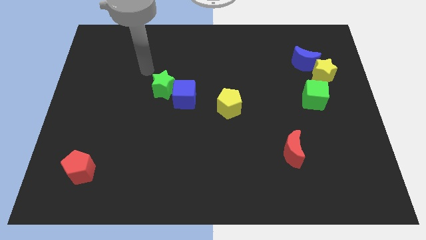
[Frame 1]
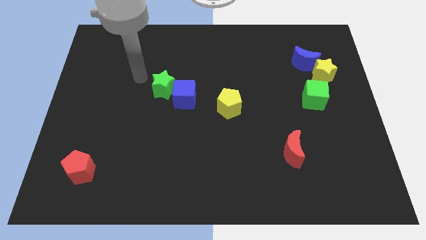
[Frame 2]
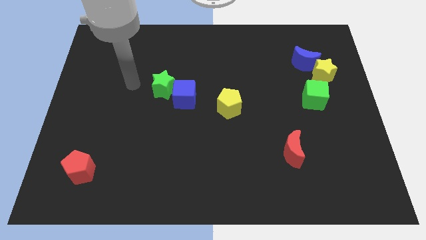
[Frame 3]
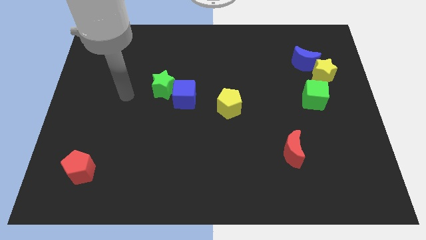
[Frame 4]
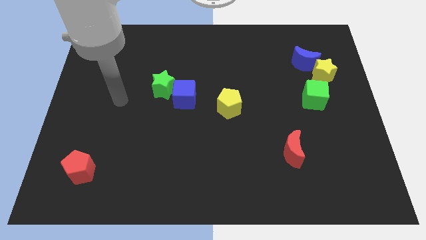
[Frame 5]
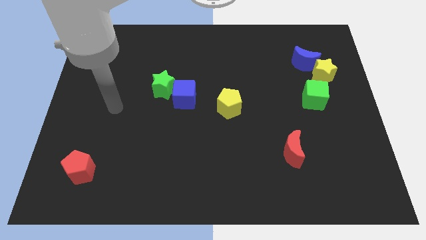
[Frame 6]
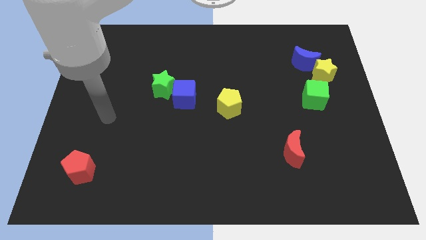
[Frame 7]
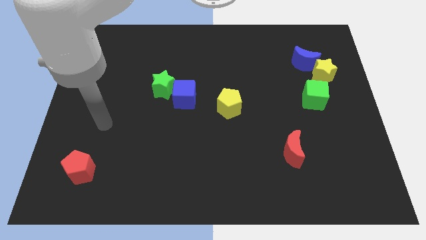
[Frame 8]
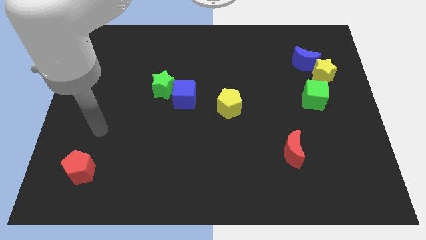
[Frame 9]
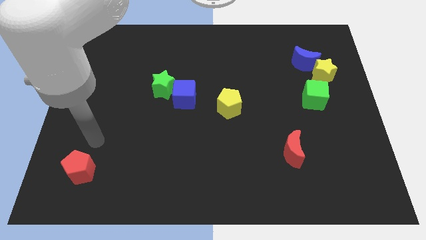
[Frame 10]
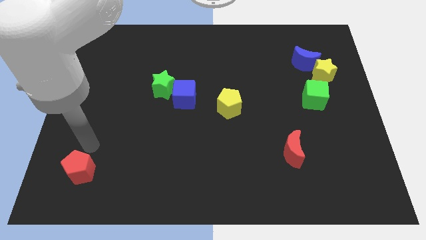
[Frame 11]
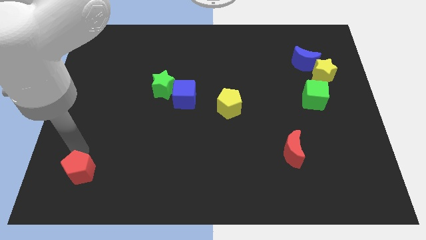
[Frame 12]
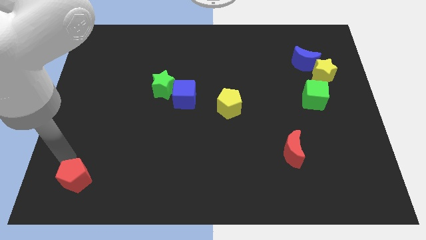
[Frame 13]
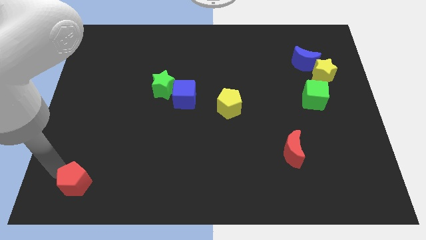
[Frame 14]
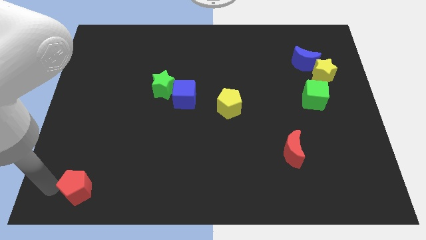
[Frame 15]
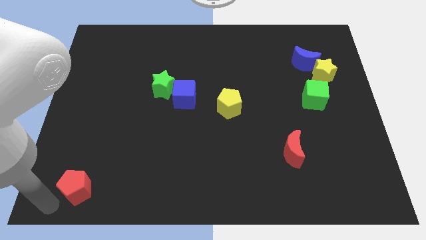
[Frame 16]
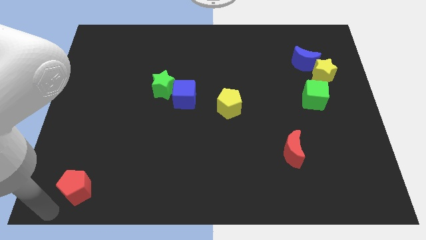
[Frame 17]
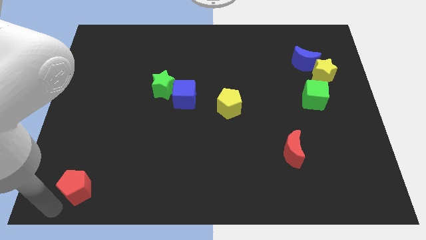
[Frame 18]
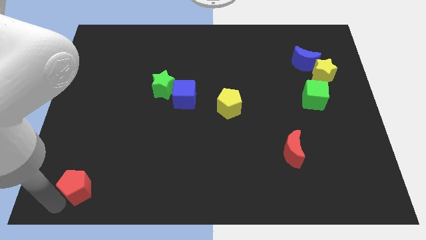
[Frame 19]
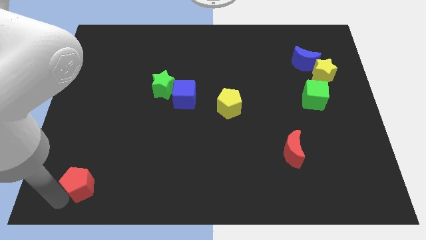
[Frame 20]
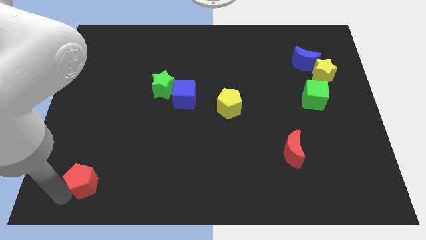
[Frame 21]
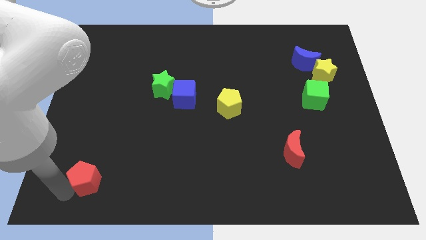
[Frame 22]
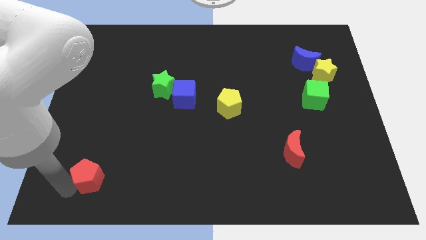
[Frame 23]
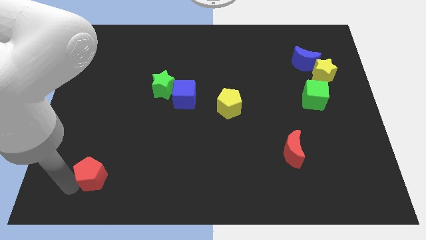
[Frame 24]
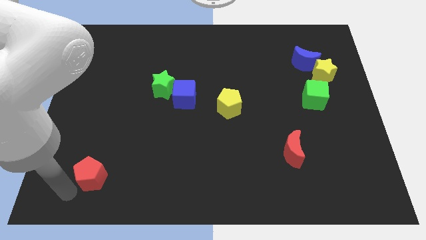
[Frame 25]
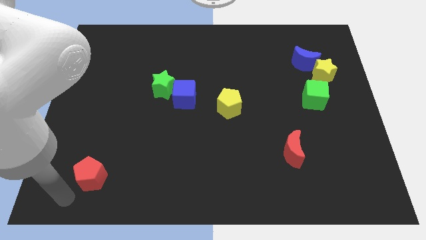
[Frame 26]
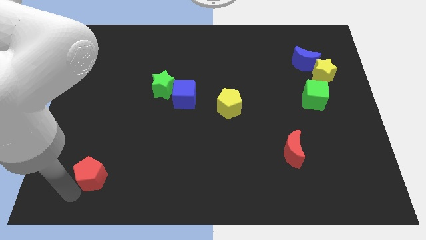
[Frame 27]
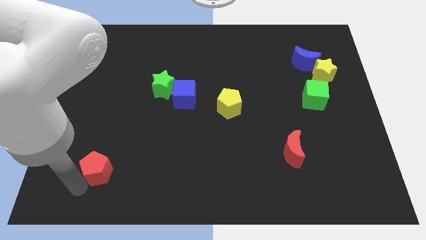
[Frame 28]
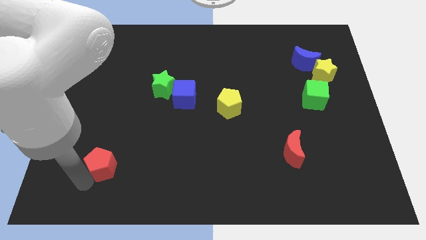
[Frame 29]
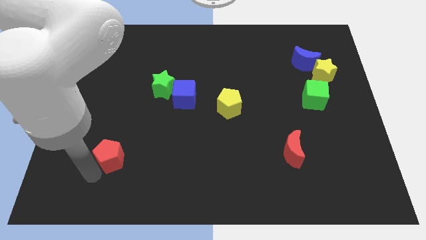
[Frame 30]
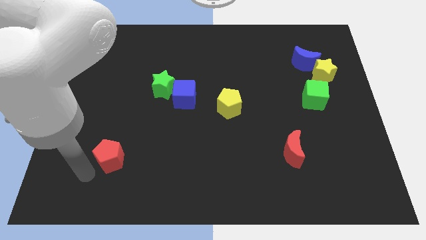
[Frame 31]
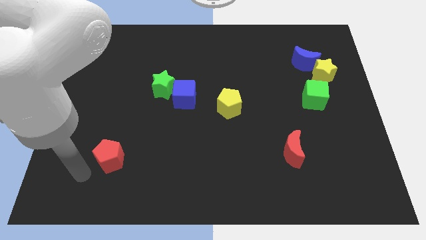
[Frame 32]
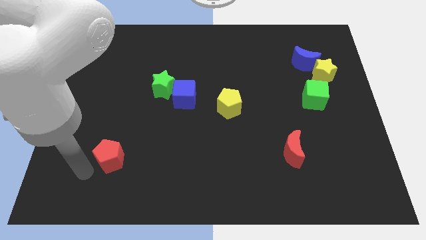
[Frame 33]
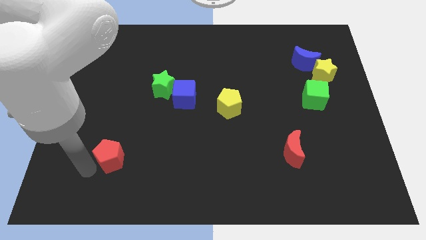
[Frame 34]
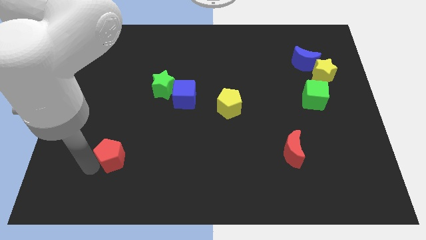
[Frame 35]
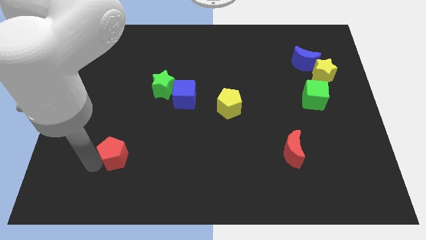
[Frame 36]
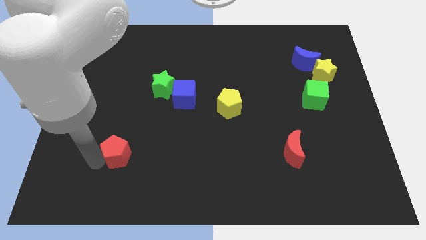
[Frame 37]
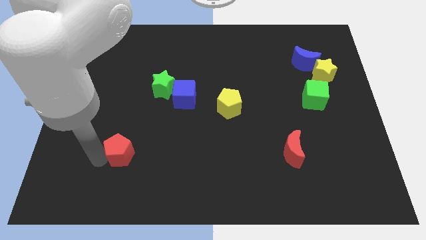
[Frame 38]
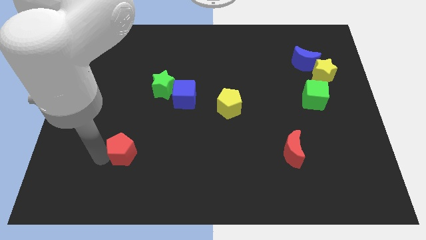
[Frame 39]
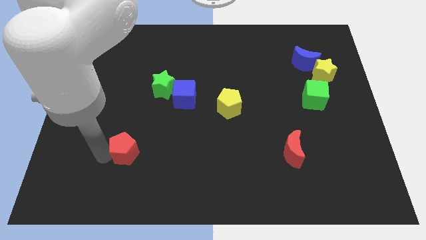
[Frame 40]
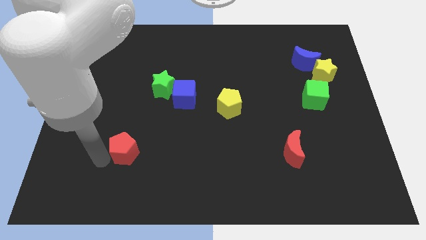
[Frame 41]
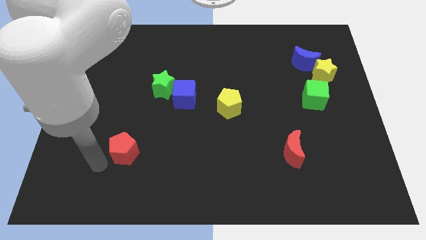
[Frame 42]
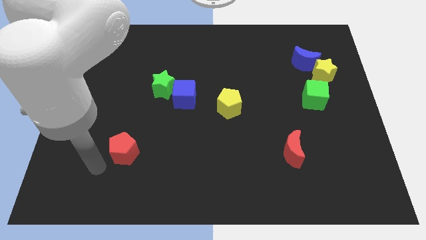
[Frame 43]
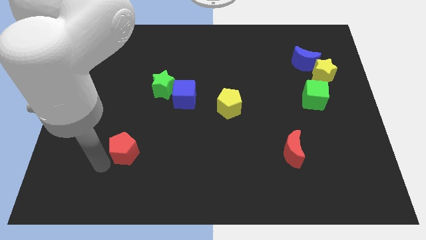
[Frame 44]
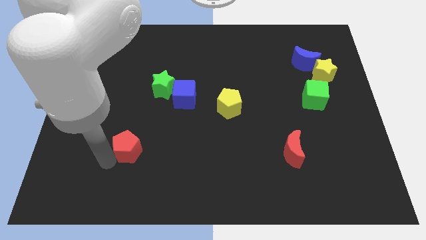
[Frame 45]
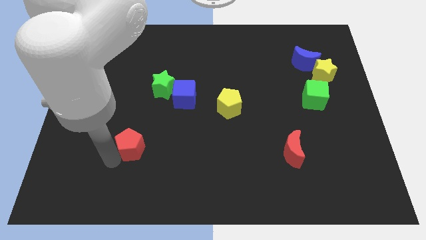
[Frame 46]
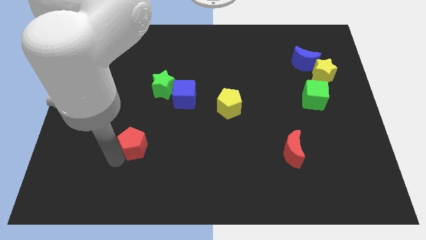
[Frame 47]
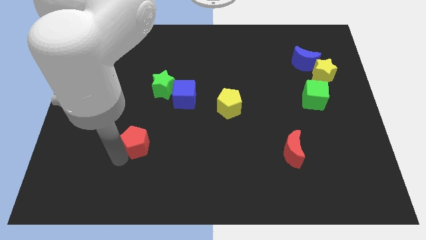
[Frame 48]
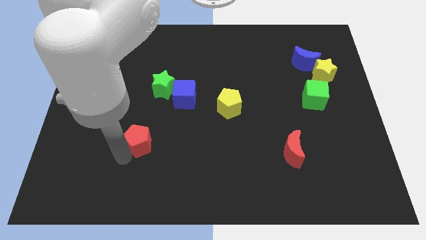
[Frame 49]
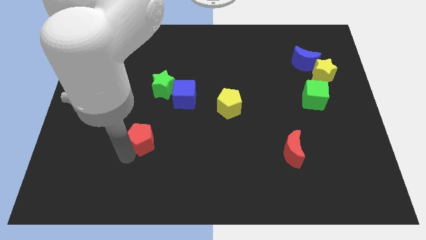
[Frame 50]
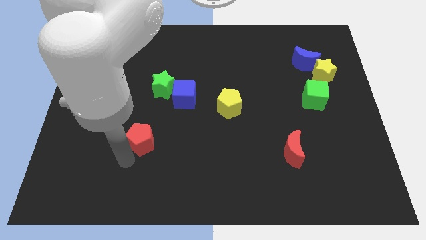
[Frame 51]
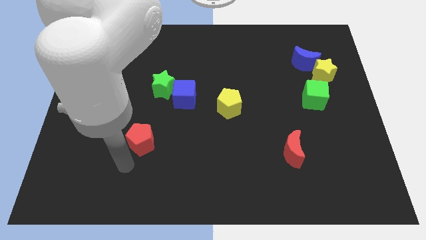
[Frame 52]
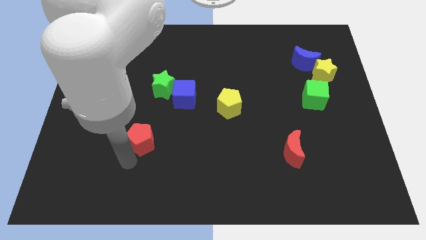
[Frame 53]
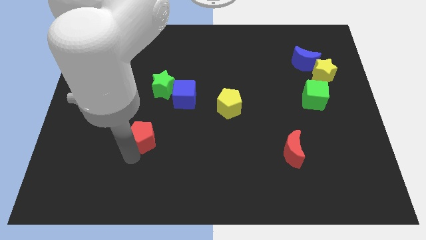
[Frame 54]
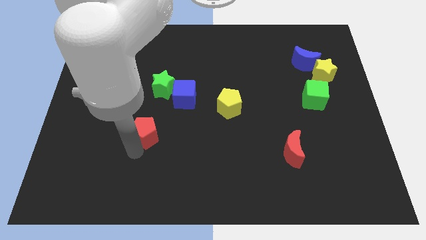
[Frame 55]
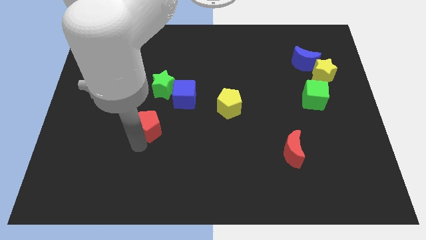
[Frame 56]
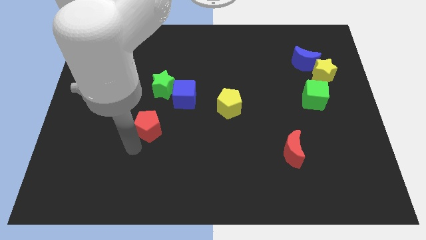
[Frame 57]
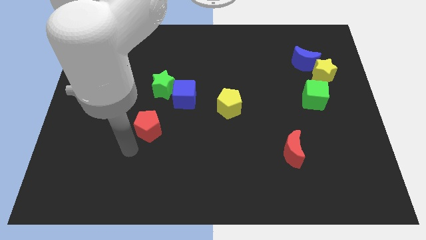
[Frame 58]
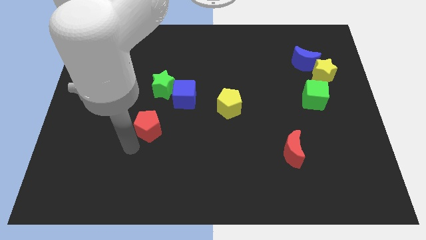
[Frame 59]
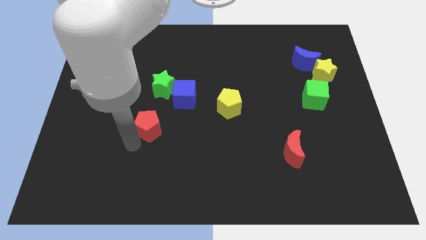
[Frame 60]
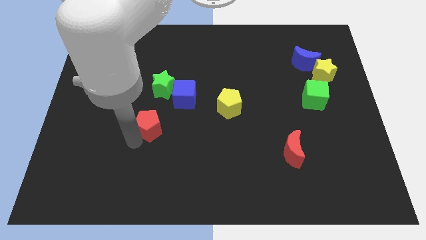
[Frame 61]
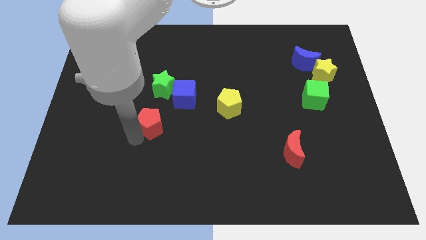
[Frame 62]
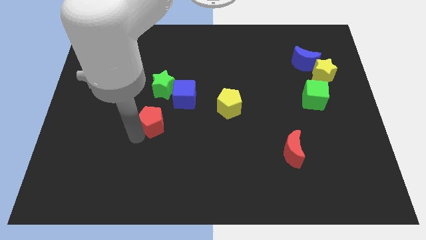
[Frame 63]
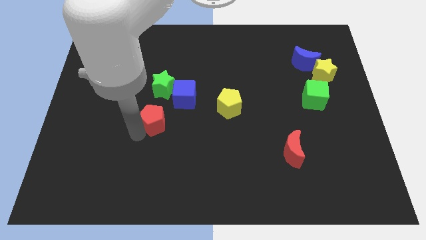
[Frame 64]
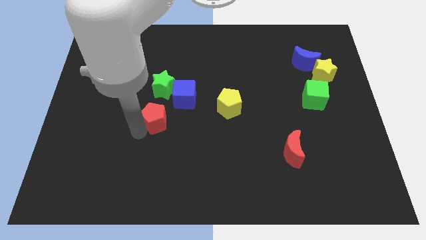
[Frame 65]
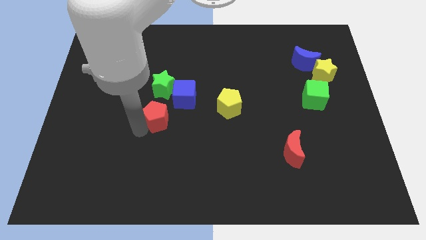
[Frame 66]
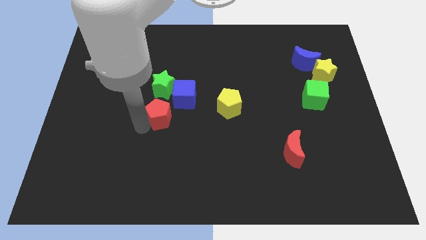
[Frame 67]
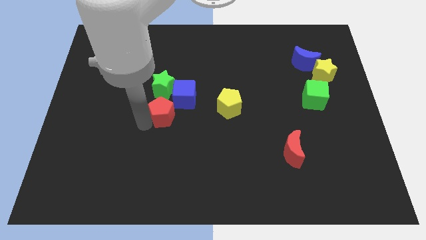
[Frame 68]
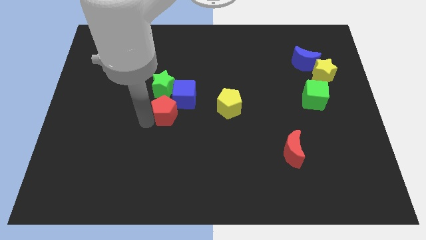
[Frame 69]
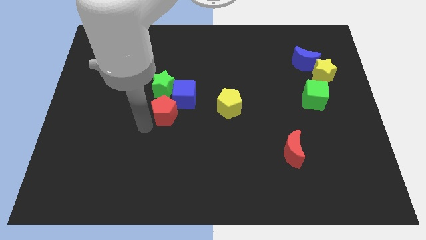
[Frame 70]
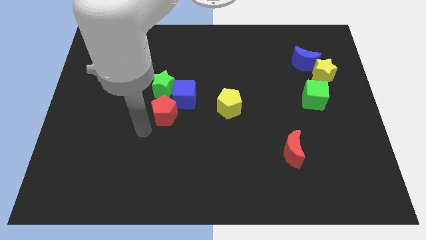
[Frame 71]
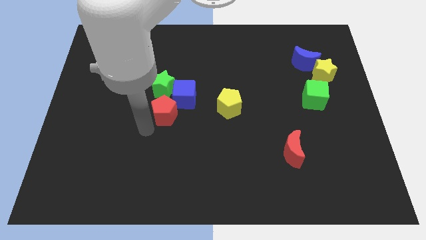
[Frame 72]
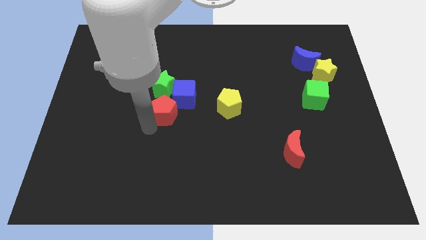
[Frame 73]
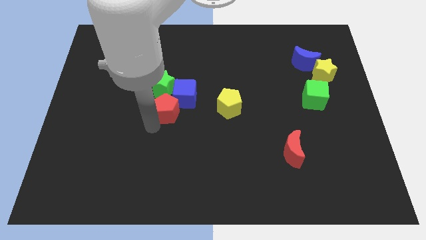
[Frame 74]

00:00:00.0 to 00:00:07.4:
push the red pentagon to the blue cube
